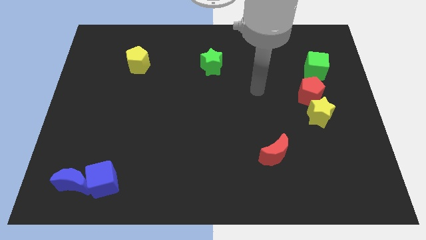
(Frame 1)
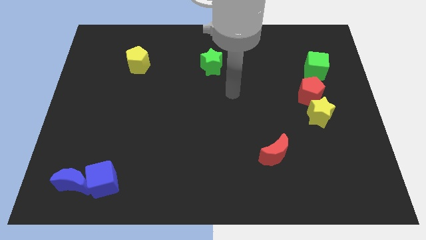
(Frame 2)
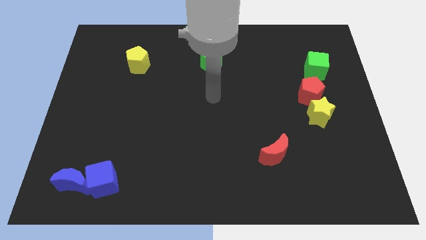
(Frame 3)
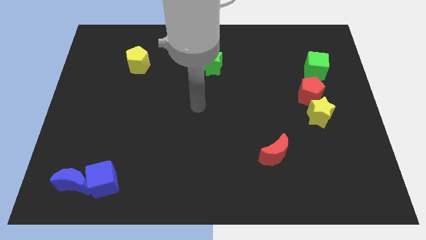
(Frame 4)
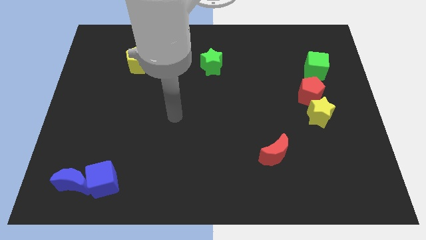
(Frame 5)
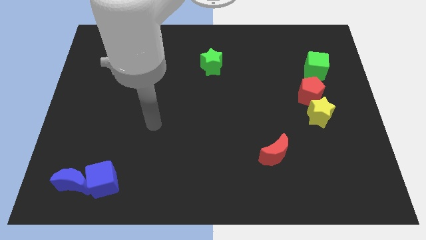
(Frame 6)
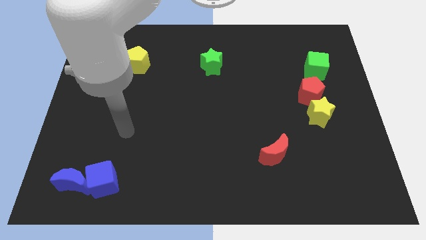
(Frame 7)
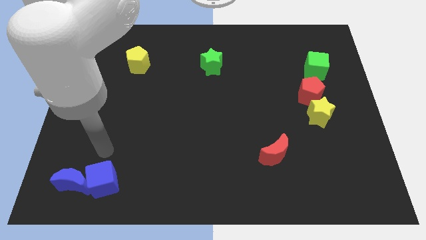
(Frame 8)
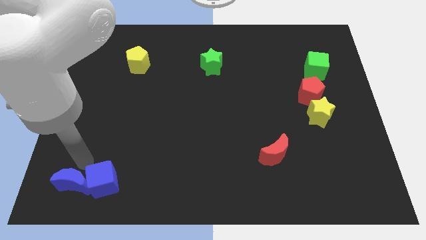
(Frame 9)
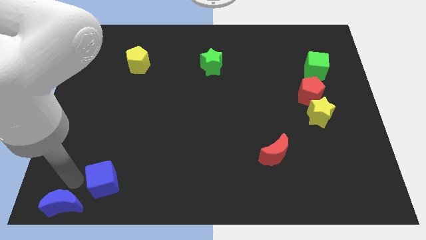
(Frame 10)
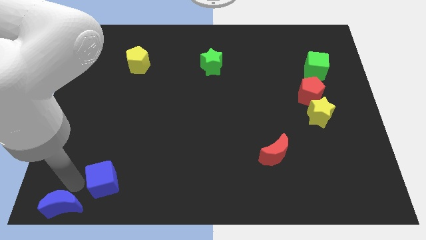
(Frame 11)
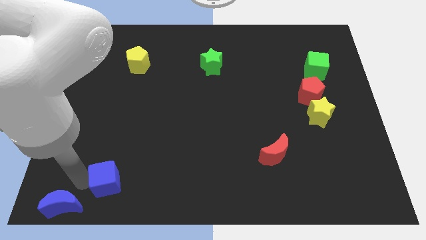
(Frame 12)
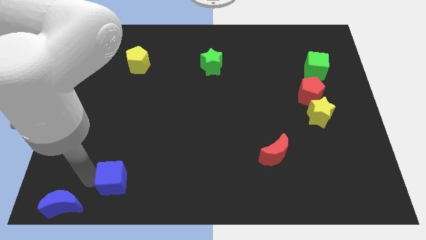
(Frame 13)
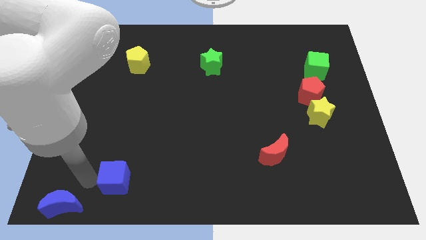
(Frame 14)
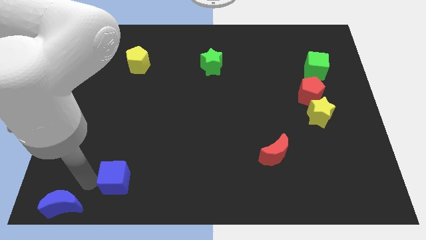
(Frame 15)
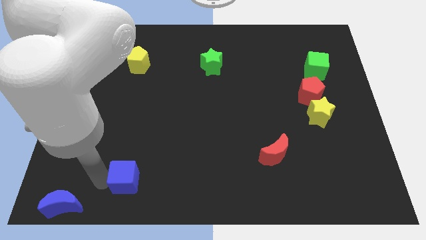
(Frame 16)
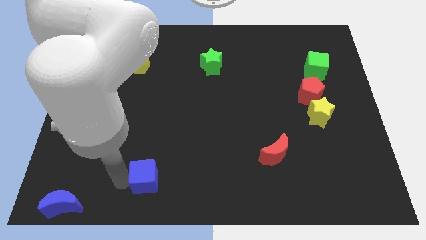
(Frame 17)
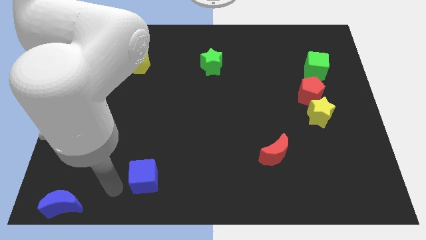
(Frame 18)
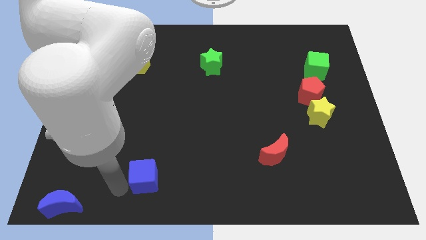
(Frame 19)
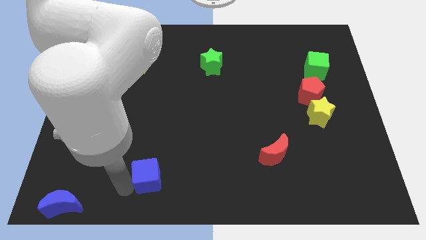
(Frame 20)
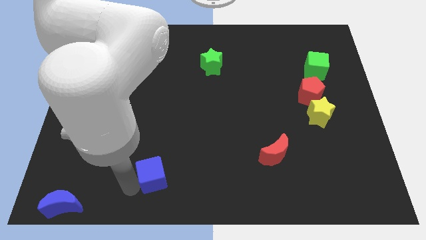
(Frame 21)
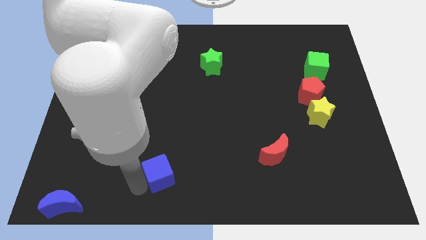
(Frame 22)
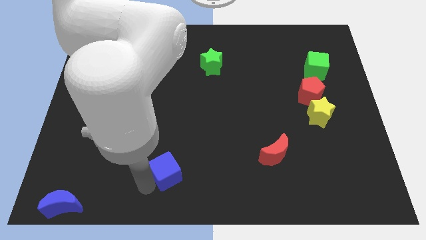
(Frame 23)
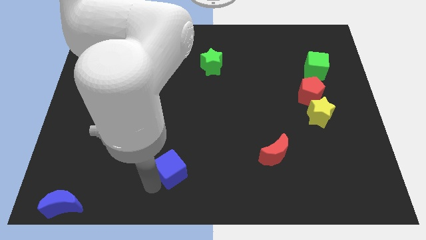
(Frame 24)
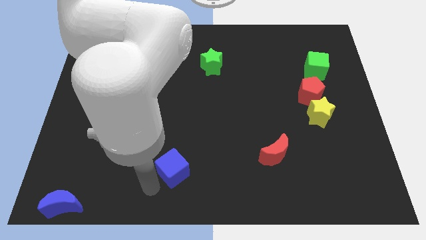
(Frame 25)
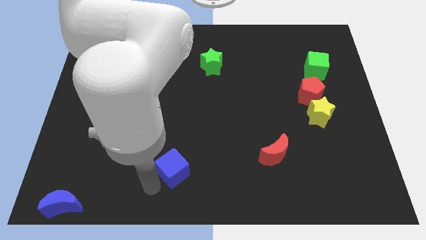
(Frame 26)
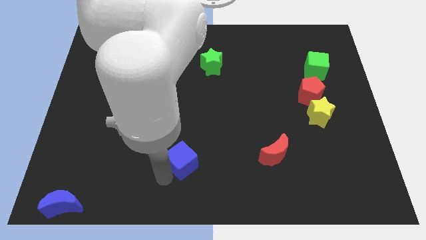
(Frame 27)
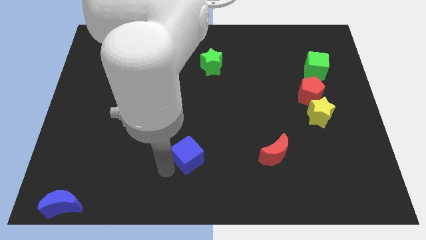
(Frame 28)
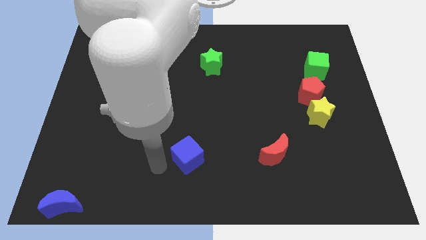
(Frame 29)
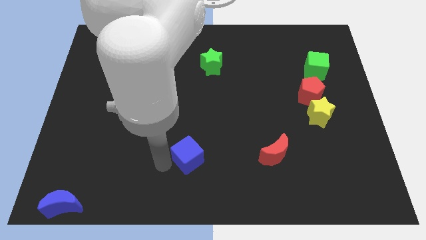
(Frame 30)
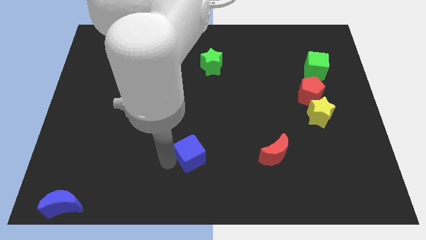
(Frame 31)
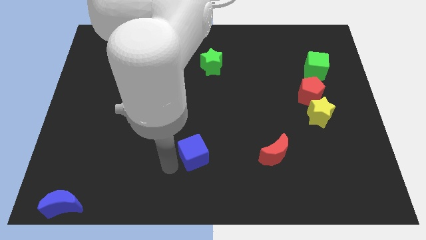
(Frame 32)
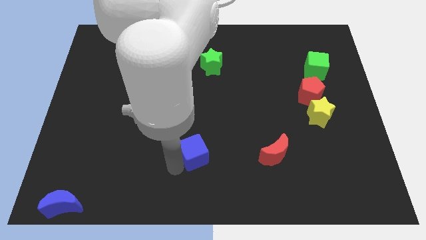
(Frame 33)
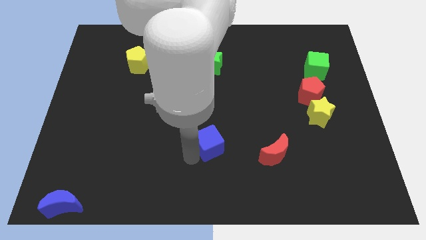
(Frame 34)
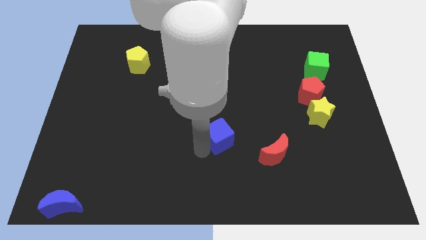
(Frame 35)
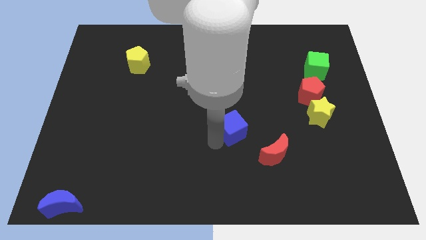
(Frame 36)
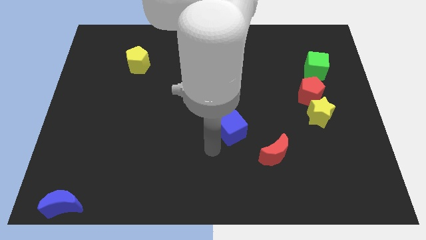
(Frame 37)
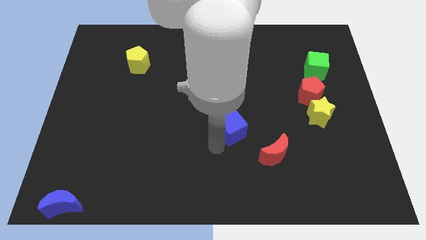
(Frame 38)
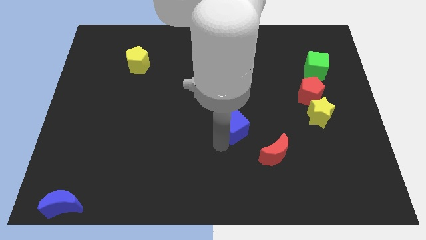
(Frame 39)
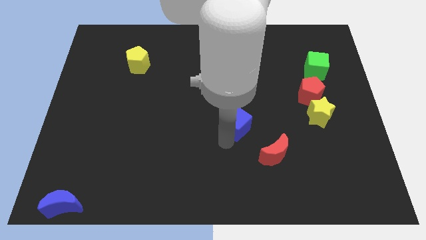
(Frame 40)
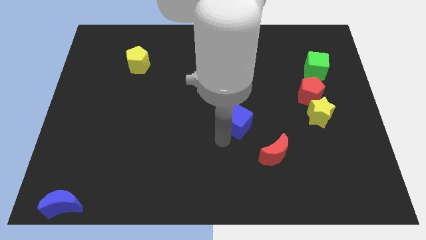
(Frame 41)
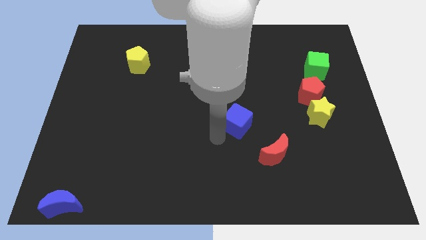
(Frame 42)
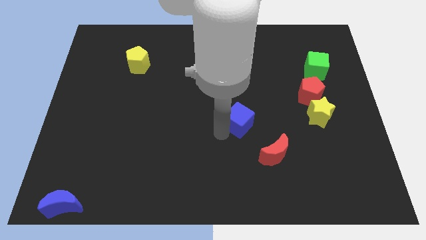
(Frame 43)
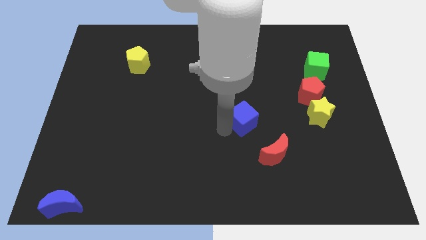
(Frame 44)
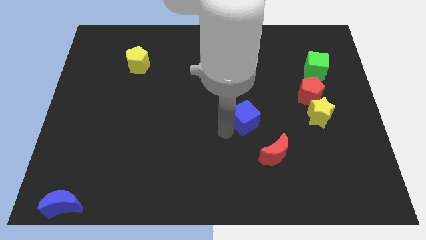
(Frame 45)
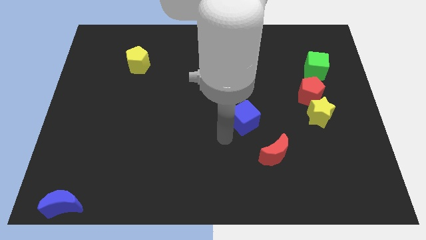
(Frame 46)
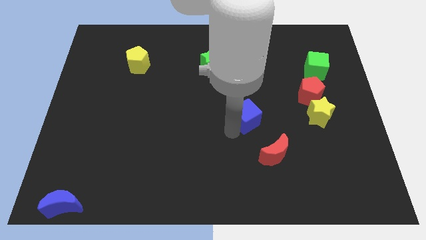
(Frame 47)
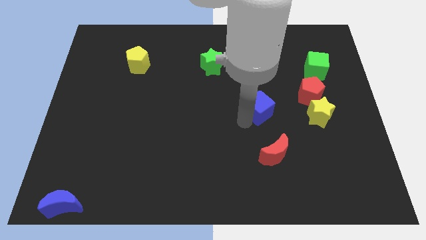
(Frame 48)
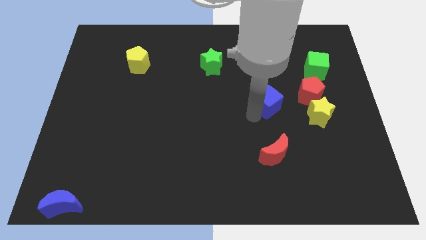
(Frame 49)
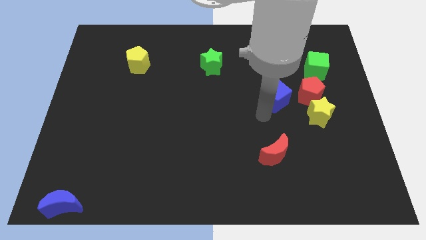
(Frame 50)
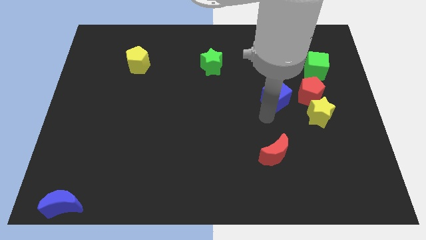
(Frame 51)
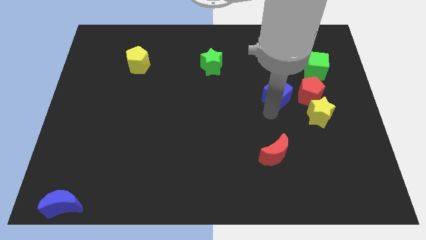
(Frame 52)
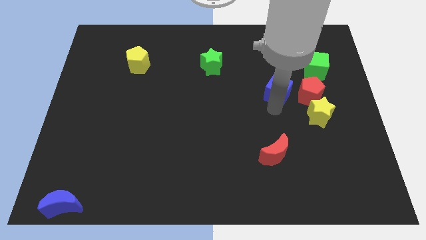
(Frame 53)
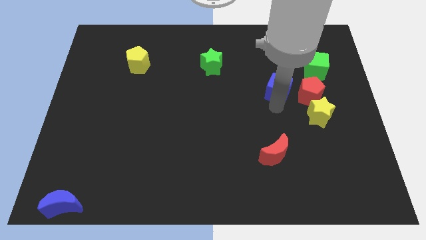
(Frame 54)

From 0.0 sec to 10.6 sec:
slide the blue cube to the top left side of the red pentagon

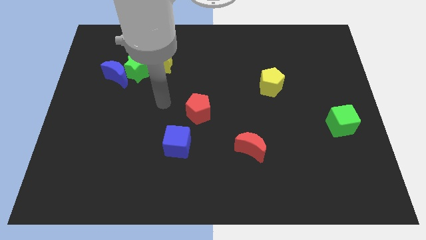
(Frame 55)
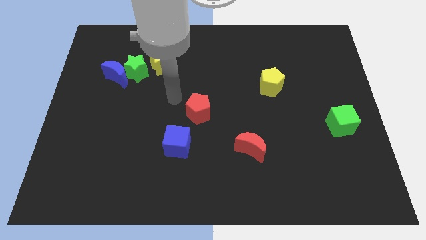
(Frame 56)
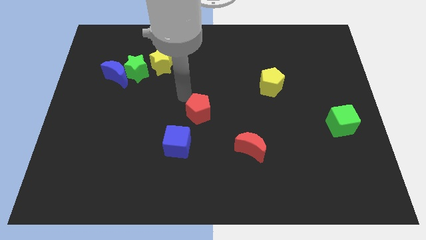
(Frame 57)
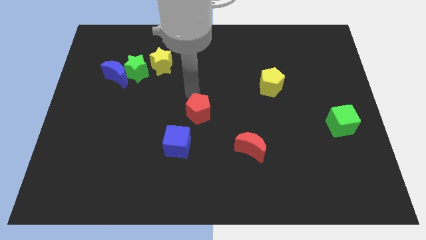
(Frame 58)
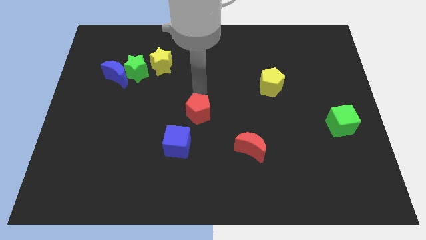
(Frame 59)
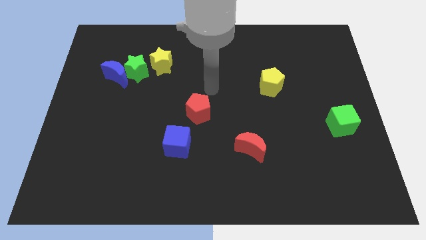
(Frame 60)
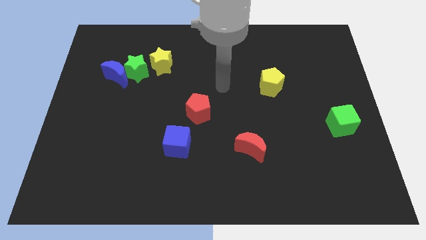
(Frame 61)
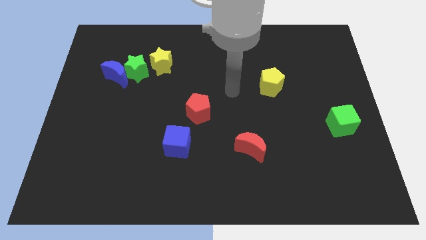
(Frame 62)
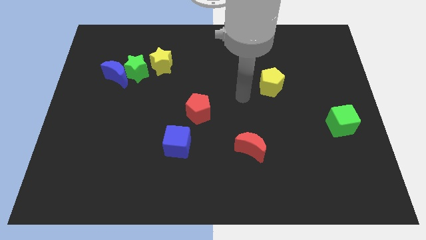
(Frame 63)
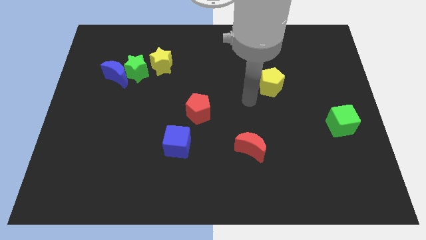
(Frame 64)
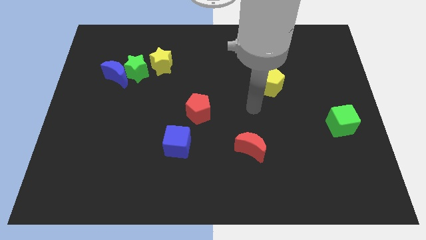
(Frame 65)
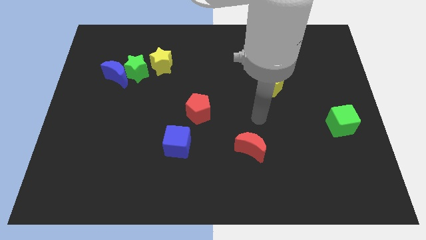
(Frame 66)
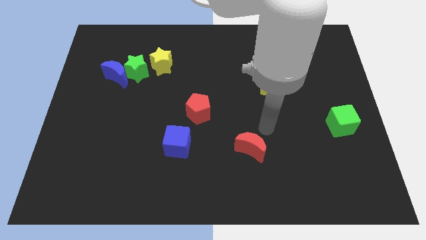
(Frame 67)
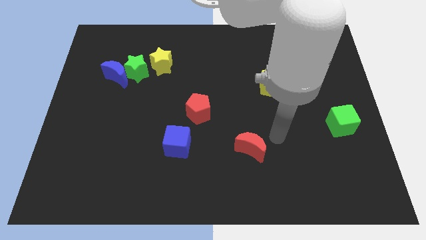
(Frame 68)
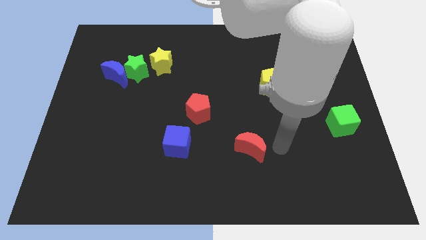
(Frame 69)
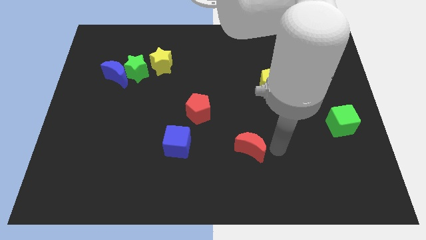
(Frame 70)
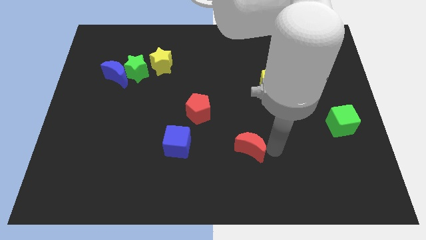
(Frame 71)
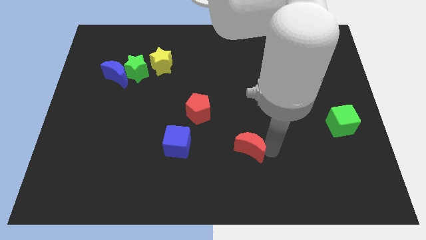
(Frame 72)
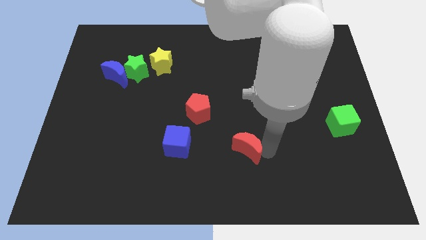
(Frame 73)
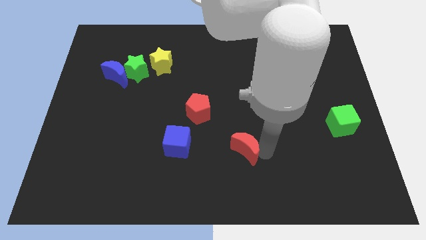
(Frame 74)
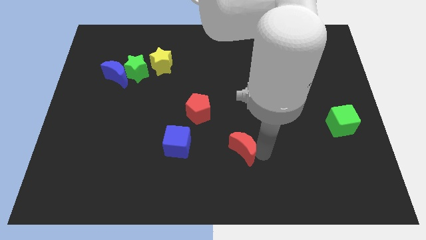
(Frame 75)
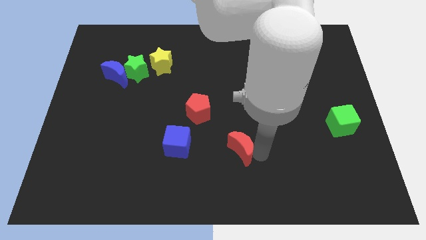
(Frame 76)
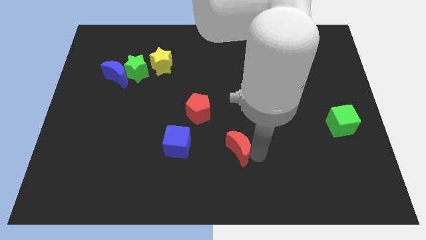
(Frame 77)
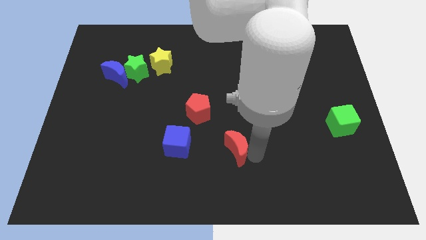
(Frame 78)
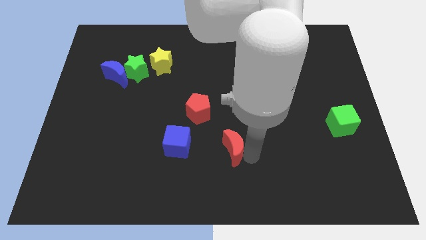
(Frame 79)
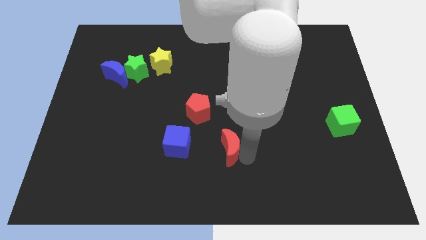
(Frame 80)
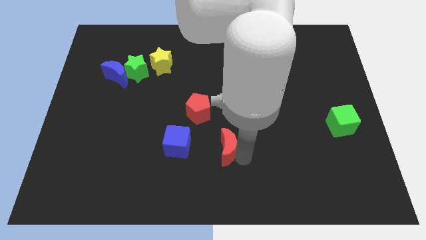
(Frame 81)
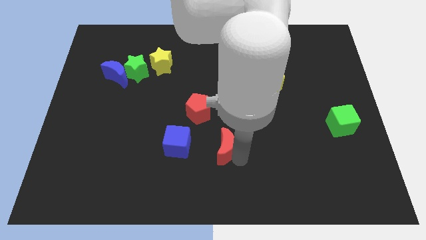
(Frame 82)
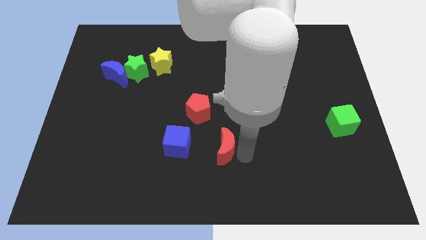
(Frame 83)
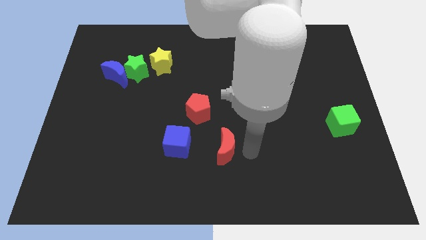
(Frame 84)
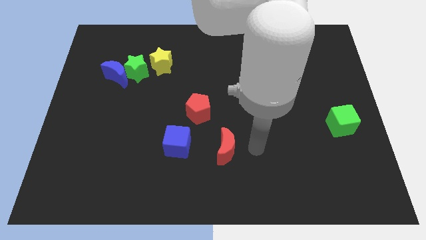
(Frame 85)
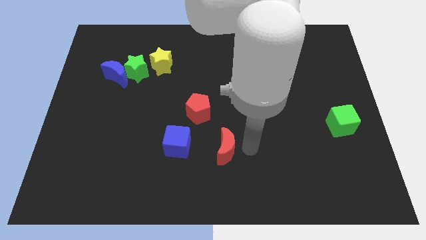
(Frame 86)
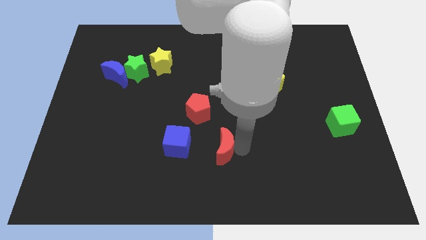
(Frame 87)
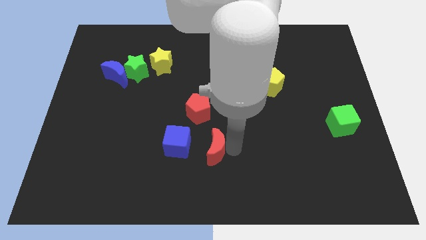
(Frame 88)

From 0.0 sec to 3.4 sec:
move the red moon to the bottom of the red pentagon
